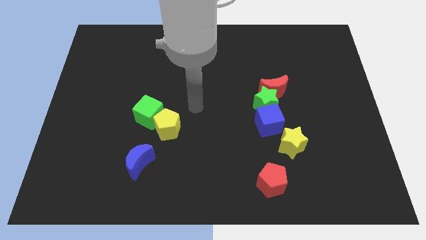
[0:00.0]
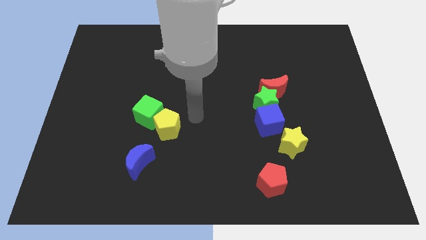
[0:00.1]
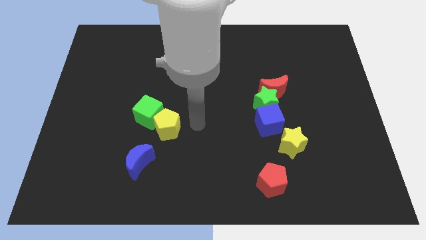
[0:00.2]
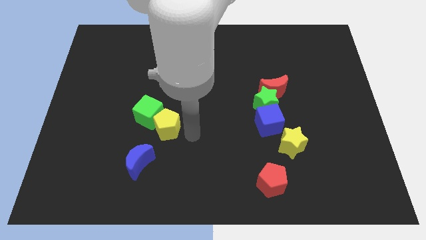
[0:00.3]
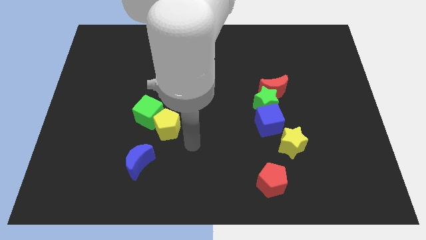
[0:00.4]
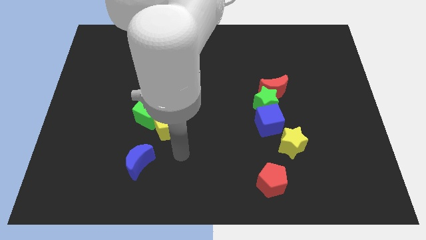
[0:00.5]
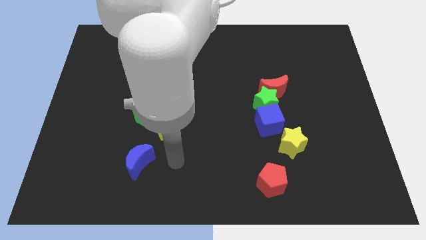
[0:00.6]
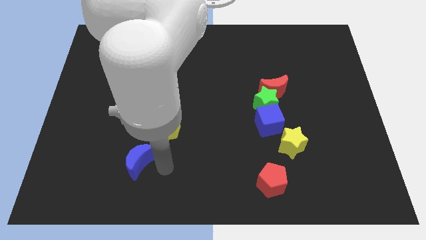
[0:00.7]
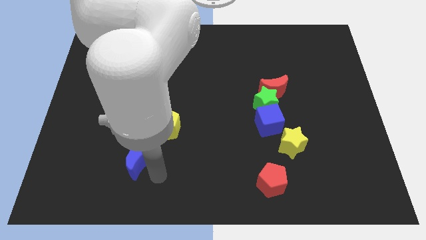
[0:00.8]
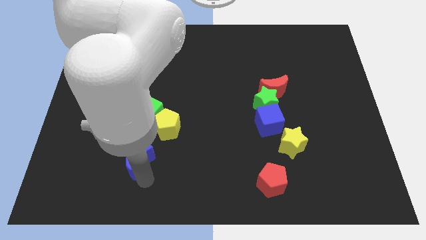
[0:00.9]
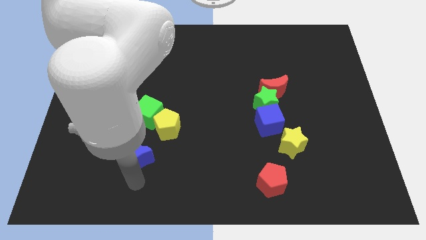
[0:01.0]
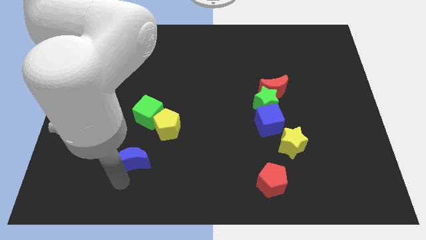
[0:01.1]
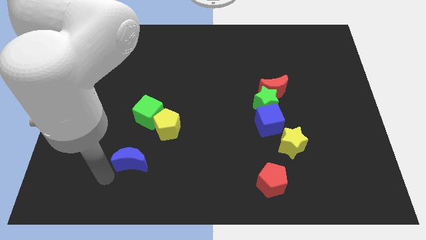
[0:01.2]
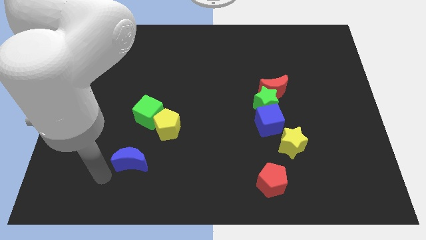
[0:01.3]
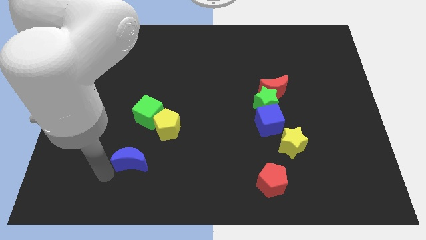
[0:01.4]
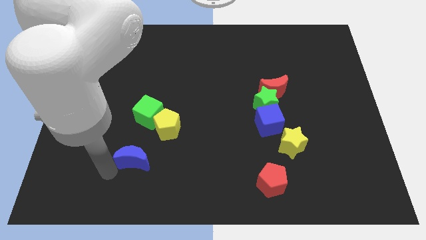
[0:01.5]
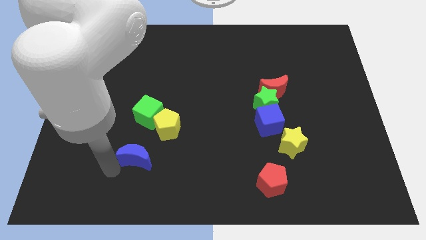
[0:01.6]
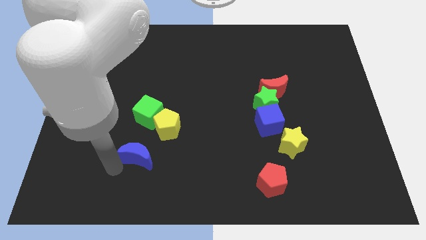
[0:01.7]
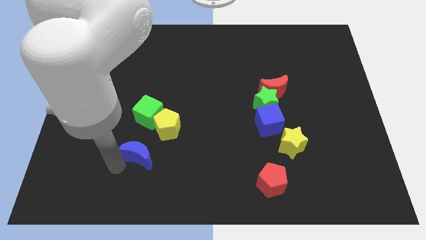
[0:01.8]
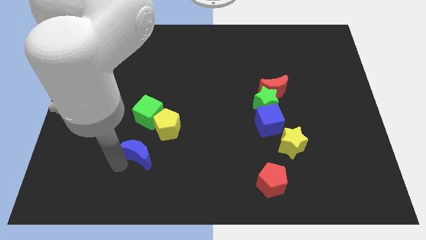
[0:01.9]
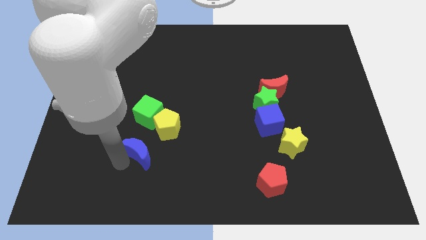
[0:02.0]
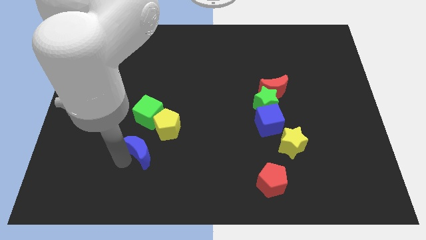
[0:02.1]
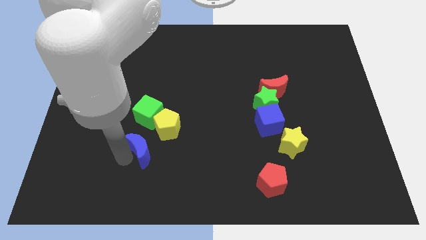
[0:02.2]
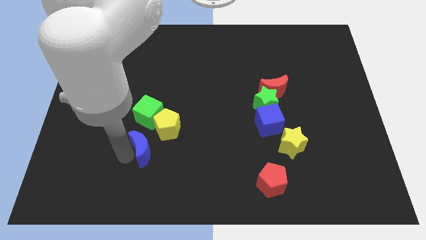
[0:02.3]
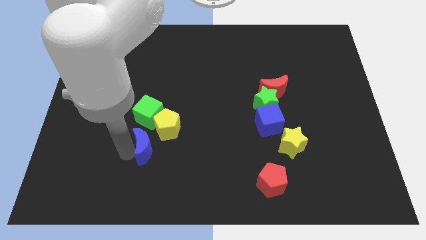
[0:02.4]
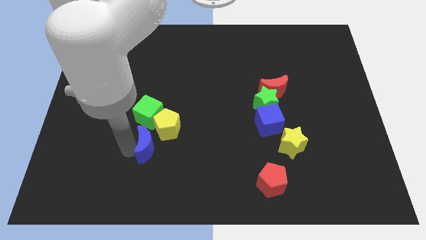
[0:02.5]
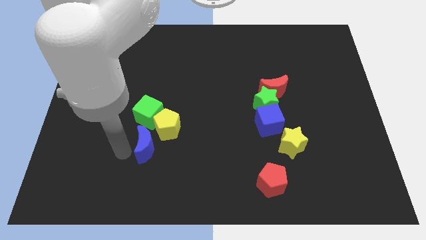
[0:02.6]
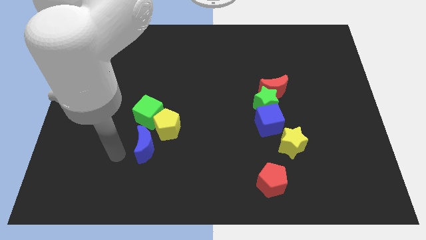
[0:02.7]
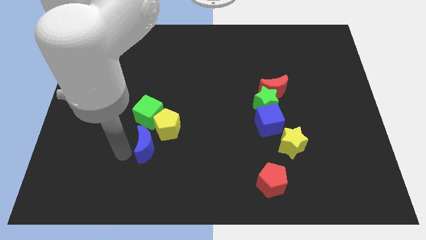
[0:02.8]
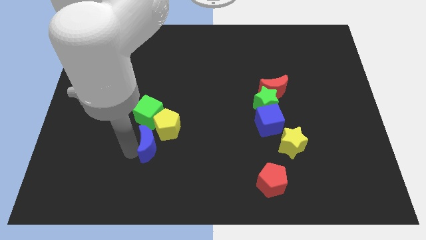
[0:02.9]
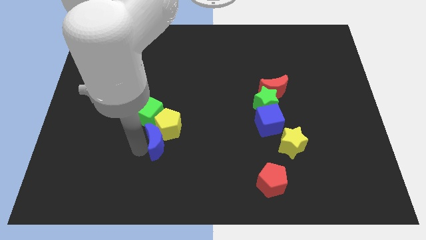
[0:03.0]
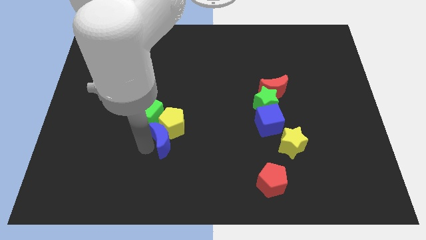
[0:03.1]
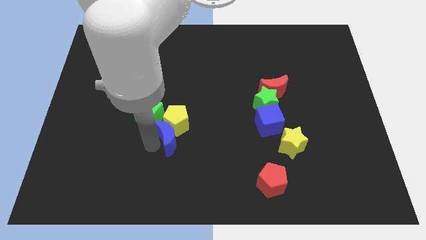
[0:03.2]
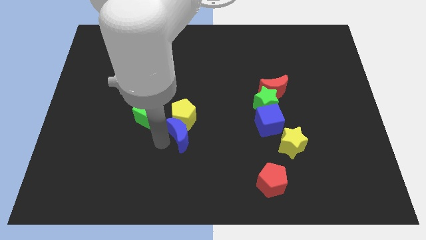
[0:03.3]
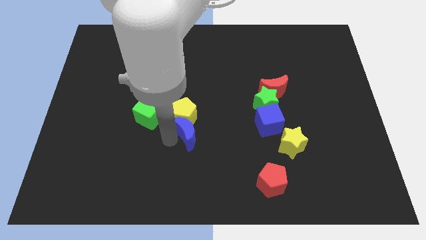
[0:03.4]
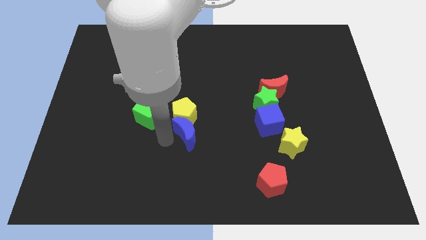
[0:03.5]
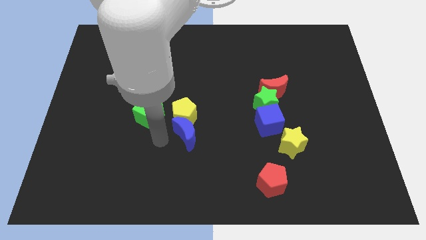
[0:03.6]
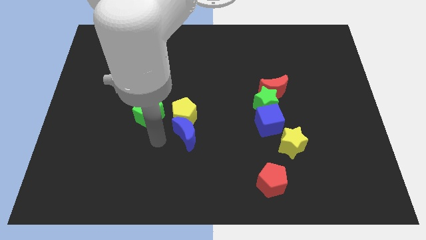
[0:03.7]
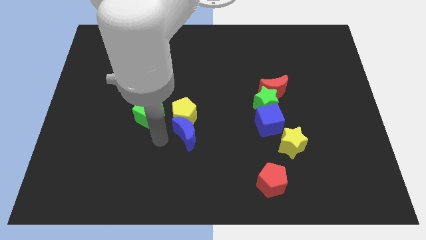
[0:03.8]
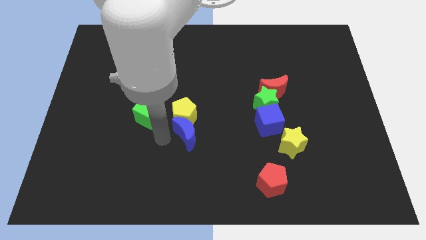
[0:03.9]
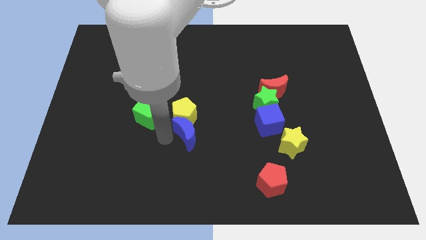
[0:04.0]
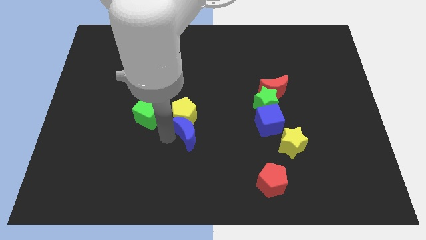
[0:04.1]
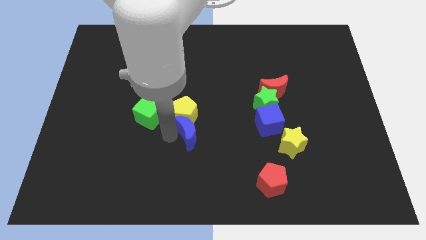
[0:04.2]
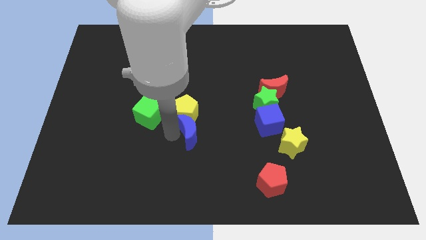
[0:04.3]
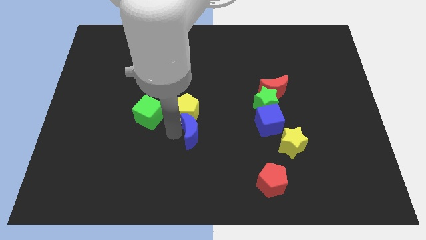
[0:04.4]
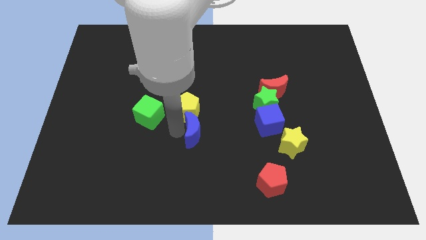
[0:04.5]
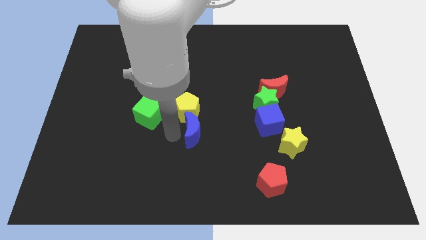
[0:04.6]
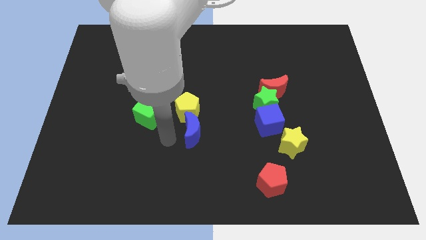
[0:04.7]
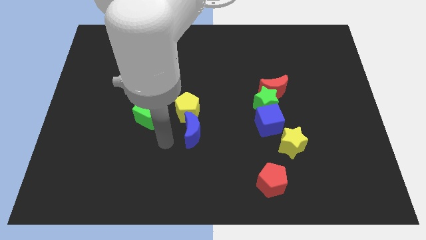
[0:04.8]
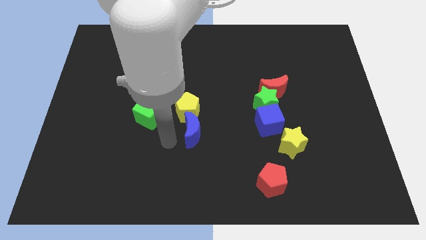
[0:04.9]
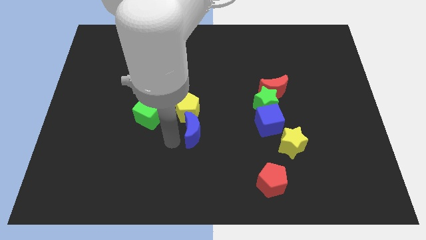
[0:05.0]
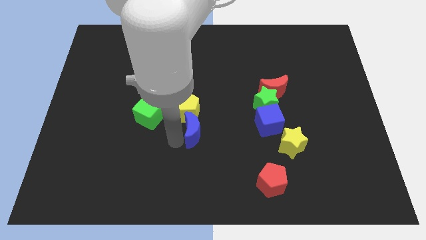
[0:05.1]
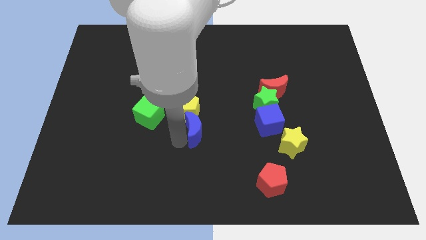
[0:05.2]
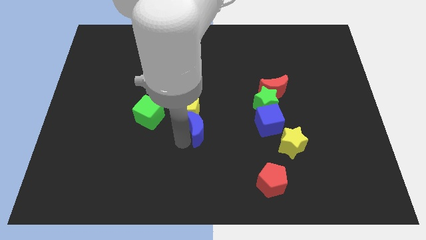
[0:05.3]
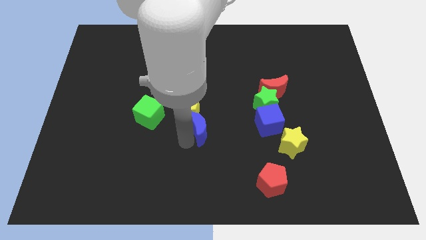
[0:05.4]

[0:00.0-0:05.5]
put the blue moon just left of the blue cube

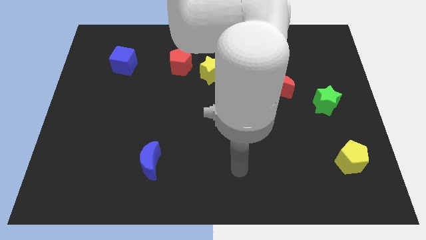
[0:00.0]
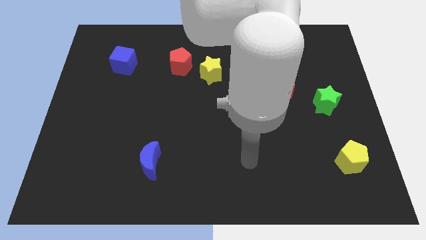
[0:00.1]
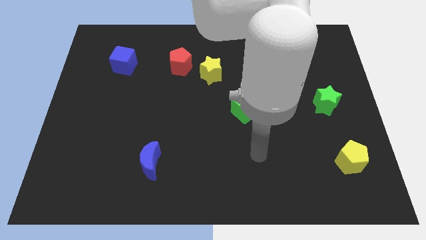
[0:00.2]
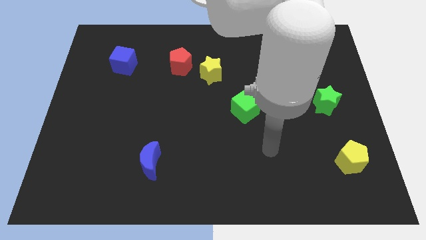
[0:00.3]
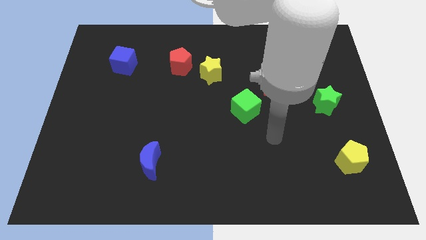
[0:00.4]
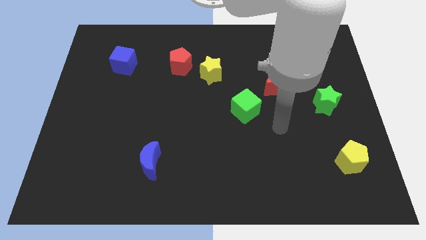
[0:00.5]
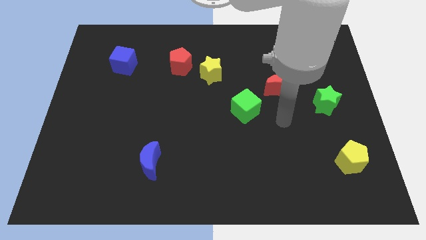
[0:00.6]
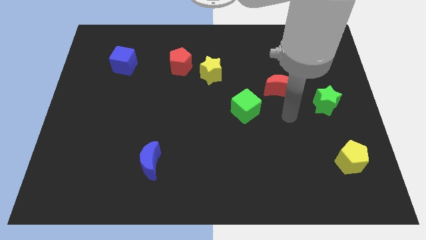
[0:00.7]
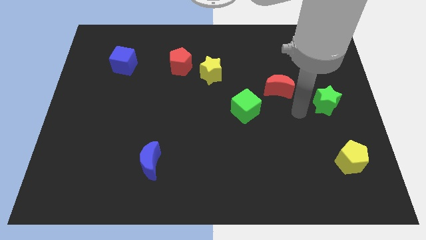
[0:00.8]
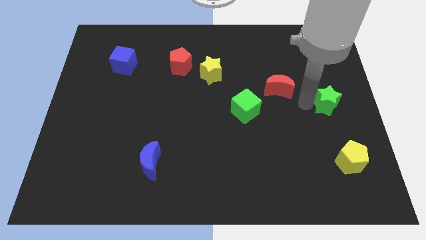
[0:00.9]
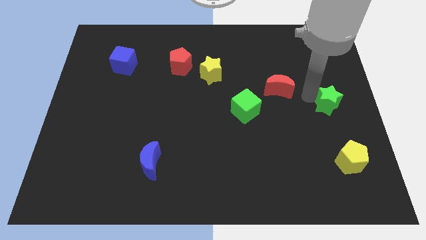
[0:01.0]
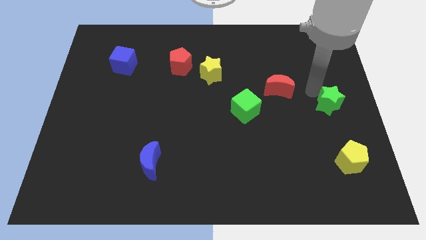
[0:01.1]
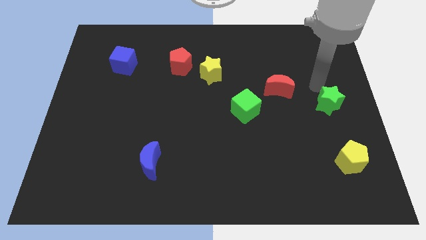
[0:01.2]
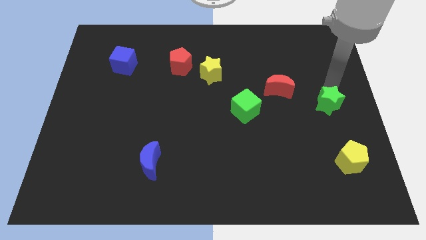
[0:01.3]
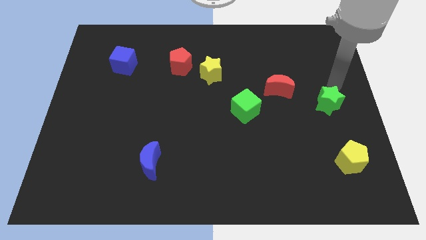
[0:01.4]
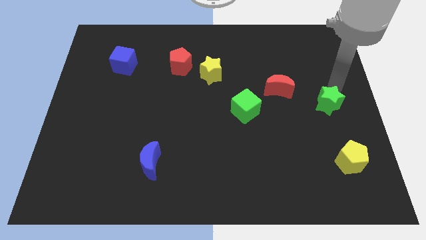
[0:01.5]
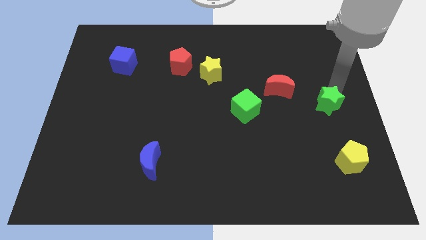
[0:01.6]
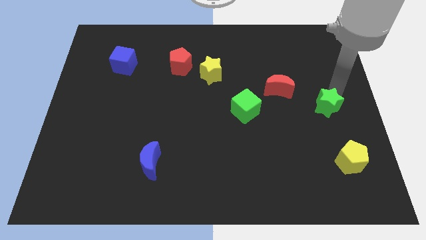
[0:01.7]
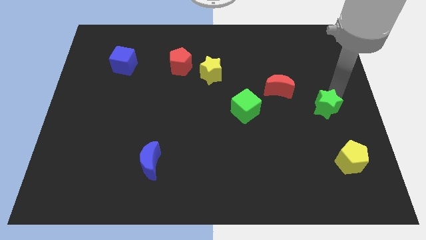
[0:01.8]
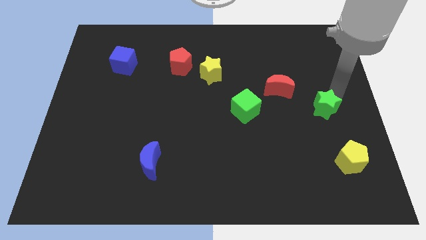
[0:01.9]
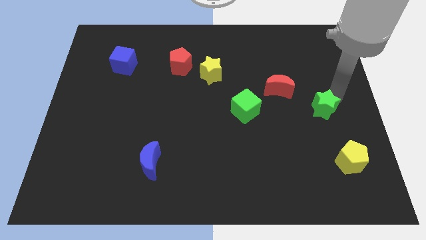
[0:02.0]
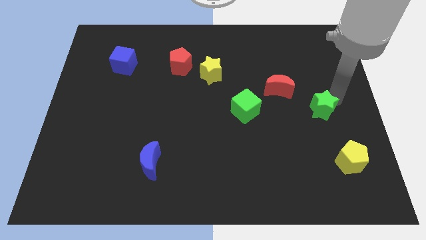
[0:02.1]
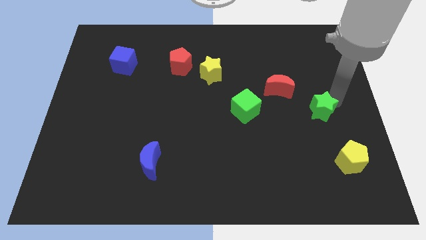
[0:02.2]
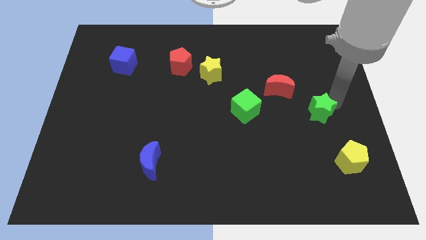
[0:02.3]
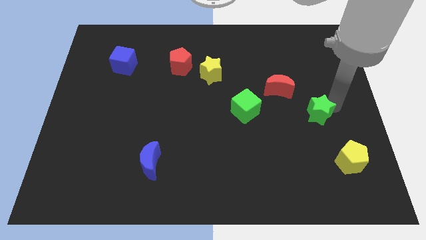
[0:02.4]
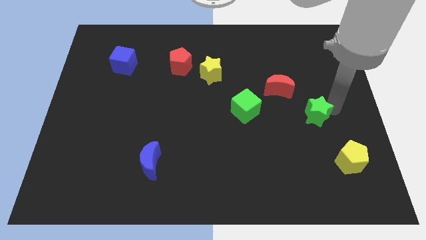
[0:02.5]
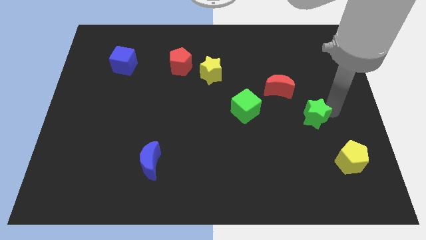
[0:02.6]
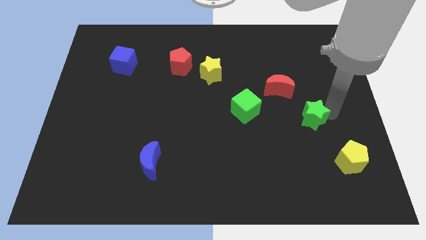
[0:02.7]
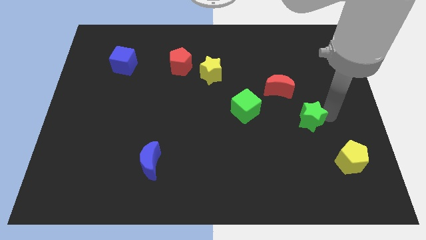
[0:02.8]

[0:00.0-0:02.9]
slide the green star to the top left of the yellow pentagon
